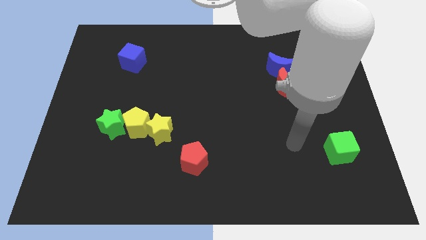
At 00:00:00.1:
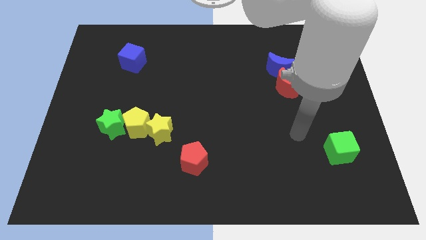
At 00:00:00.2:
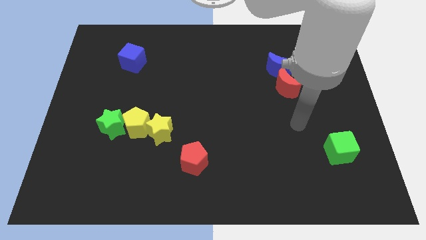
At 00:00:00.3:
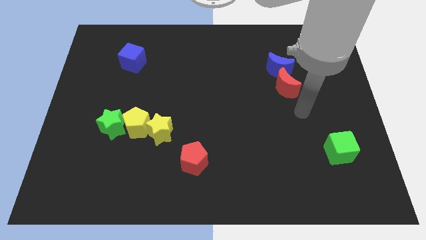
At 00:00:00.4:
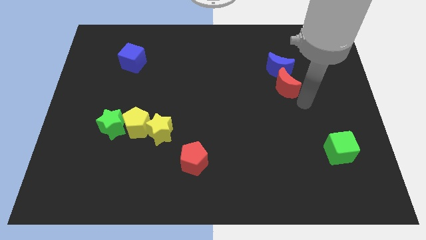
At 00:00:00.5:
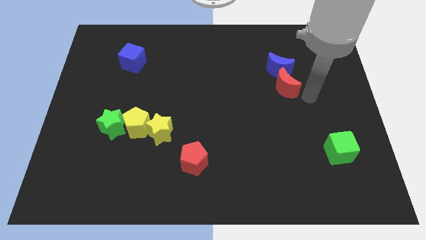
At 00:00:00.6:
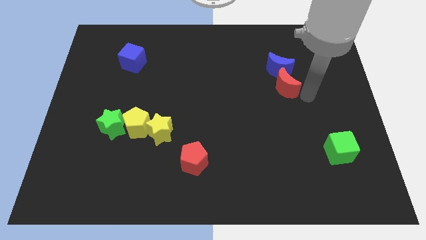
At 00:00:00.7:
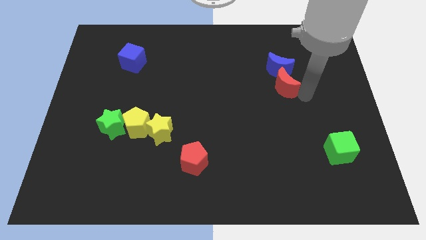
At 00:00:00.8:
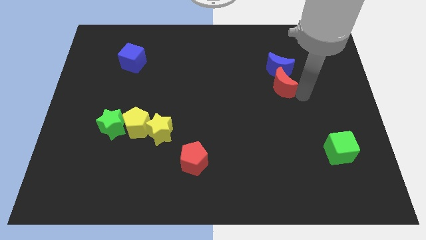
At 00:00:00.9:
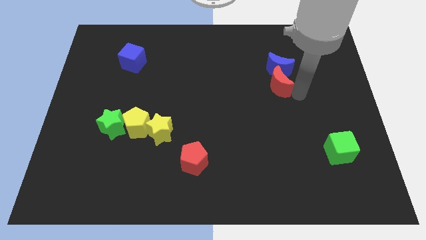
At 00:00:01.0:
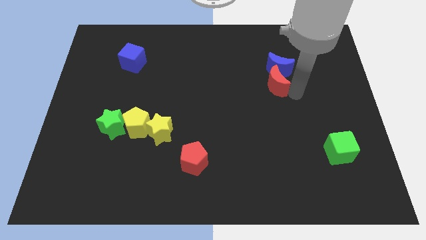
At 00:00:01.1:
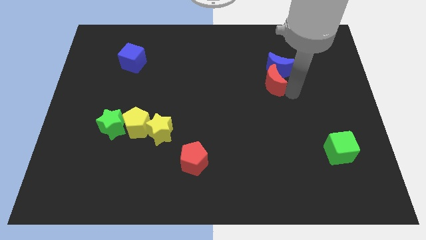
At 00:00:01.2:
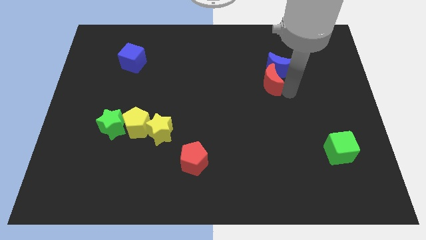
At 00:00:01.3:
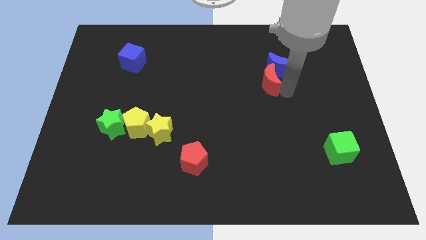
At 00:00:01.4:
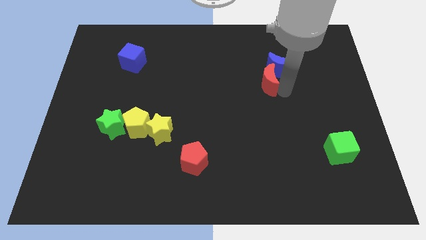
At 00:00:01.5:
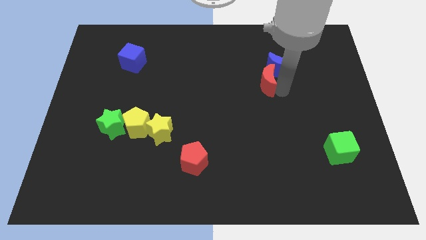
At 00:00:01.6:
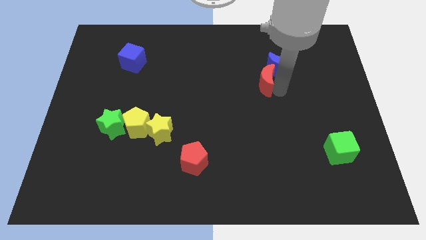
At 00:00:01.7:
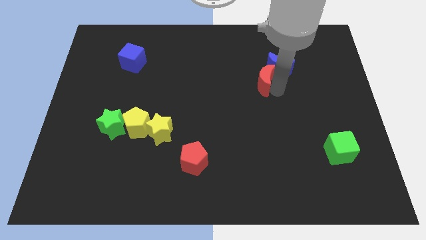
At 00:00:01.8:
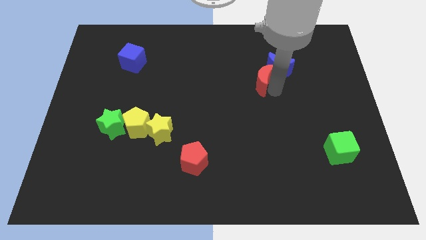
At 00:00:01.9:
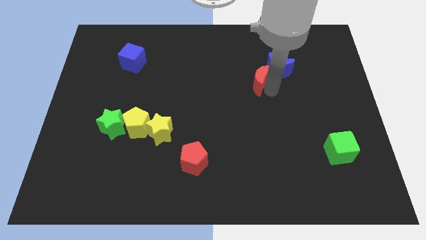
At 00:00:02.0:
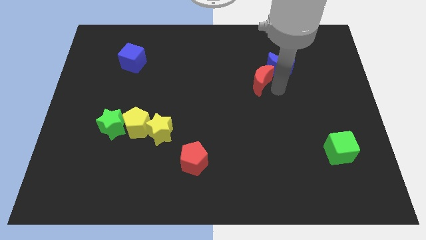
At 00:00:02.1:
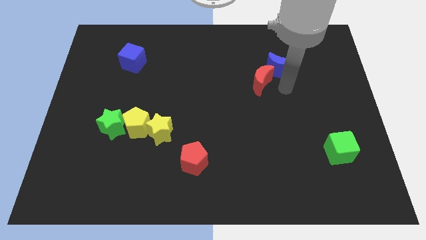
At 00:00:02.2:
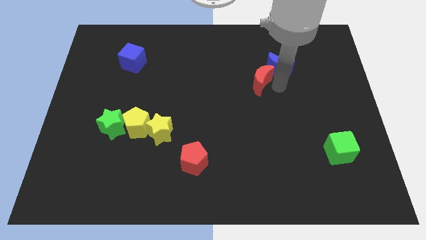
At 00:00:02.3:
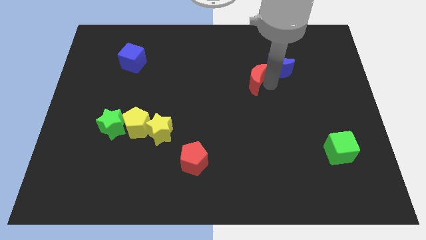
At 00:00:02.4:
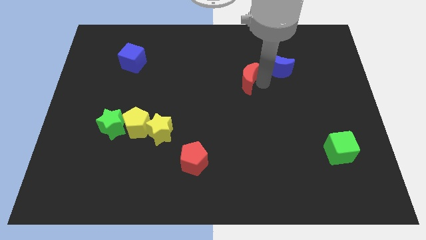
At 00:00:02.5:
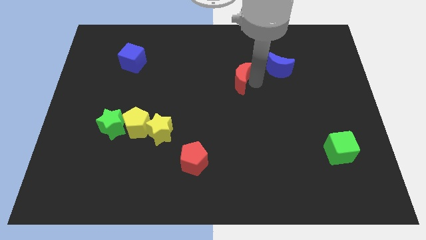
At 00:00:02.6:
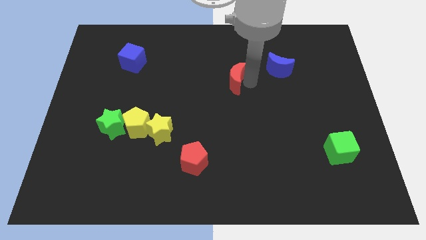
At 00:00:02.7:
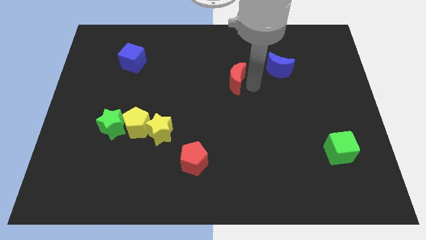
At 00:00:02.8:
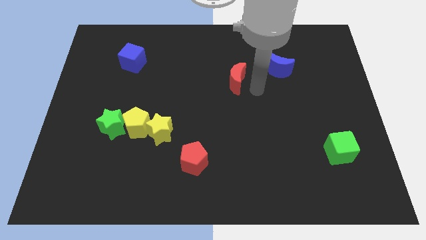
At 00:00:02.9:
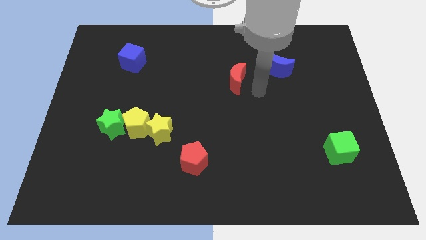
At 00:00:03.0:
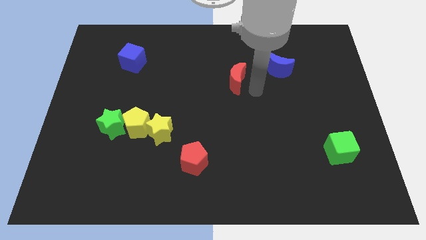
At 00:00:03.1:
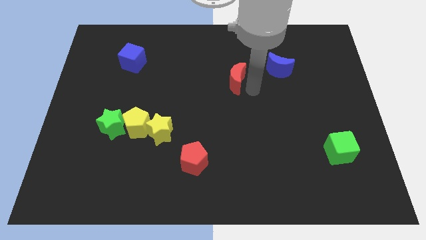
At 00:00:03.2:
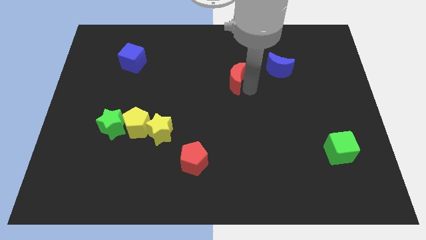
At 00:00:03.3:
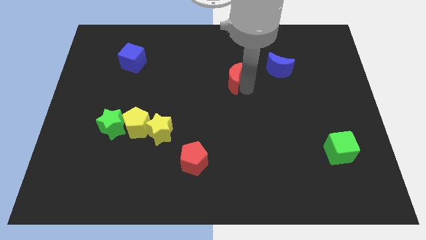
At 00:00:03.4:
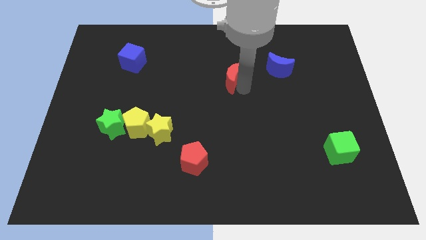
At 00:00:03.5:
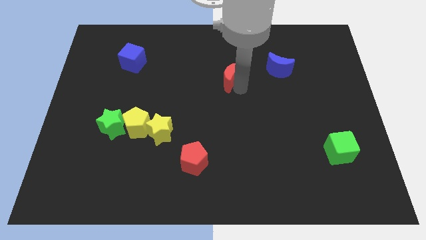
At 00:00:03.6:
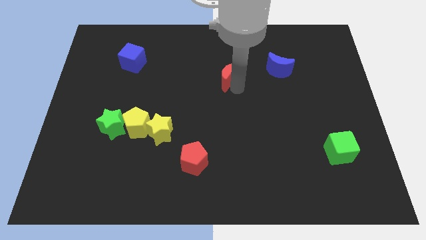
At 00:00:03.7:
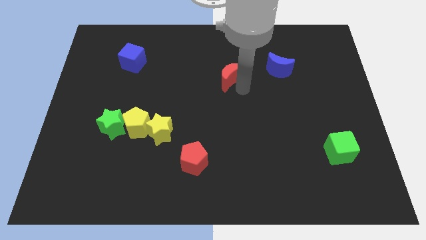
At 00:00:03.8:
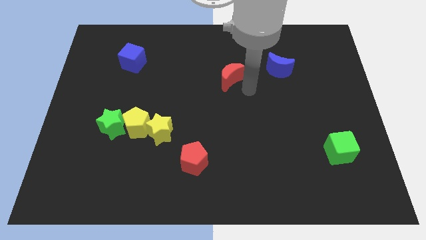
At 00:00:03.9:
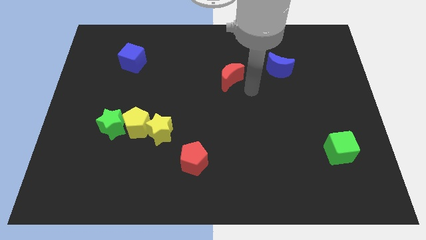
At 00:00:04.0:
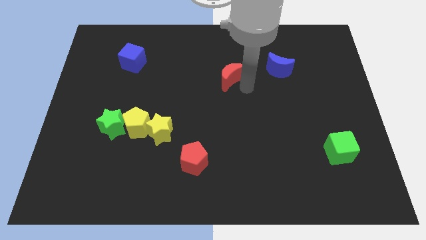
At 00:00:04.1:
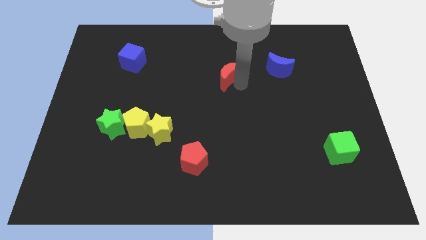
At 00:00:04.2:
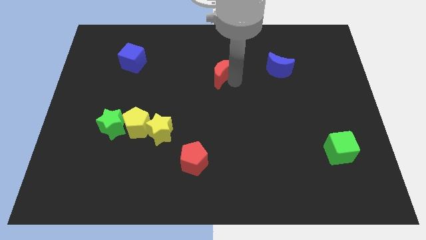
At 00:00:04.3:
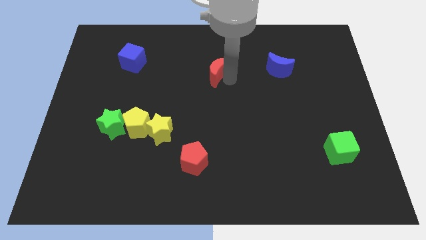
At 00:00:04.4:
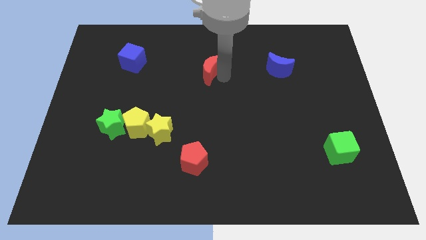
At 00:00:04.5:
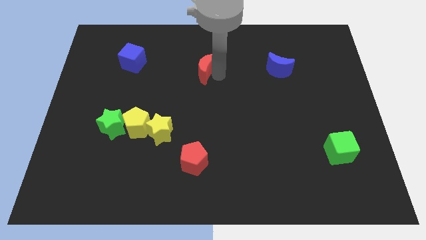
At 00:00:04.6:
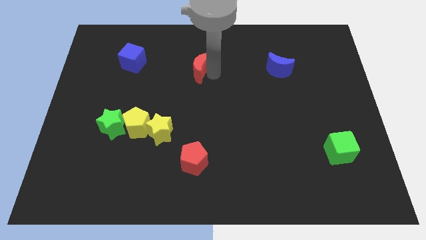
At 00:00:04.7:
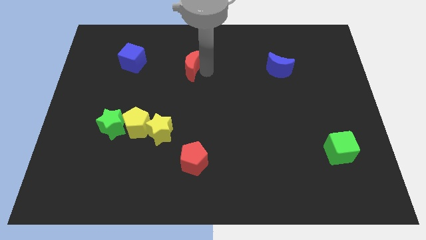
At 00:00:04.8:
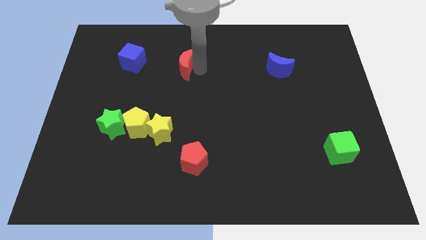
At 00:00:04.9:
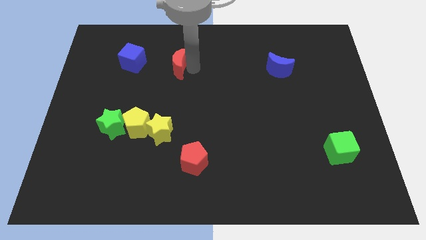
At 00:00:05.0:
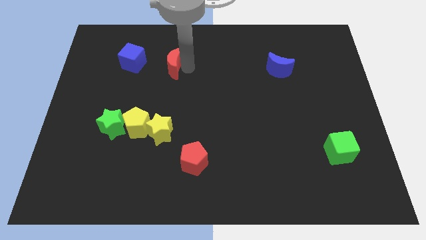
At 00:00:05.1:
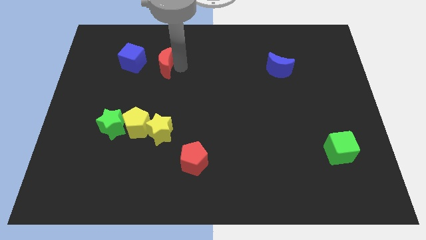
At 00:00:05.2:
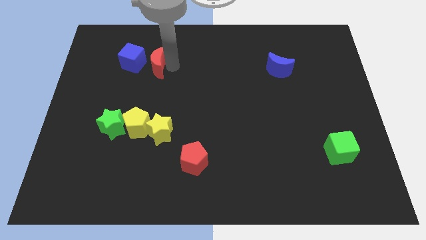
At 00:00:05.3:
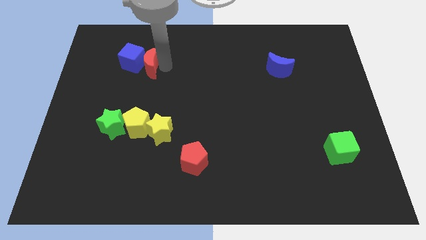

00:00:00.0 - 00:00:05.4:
push the red moon to the blue cube

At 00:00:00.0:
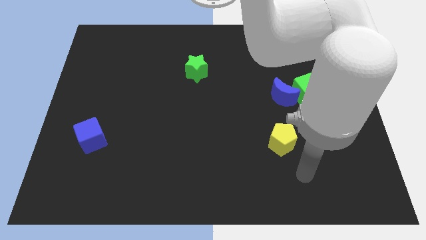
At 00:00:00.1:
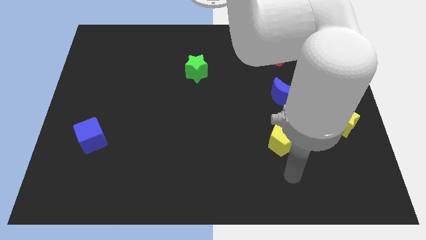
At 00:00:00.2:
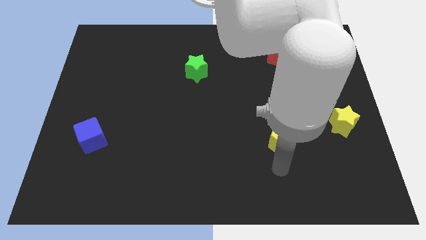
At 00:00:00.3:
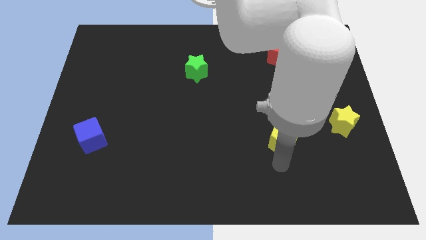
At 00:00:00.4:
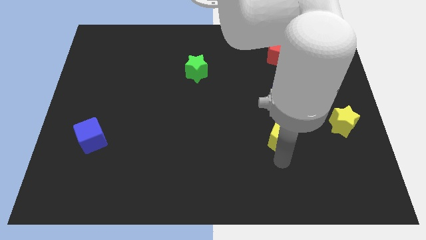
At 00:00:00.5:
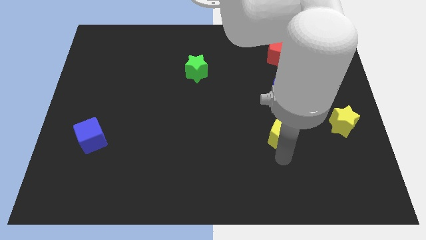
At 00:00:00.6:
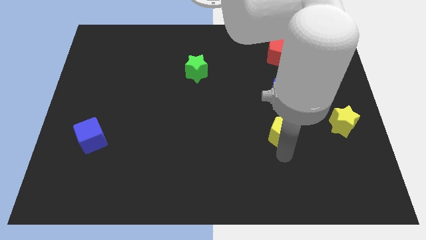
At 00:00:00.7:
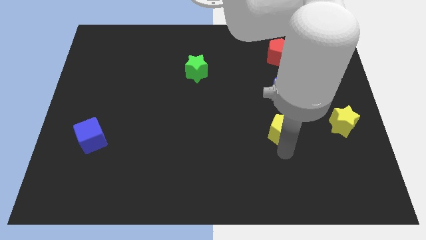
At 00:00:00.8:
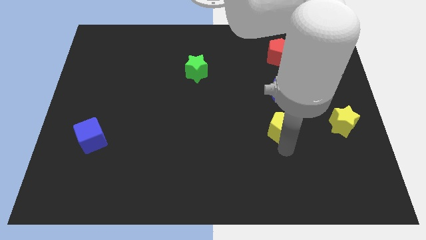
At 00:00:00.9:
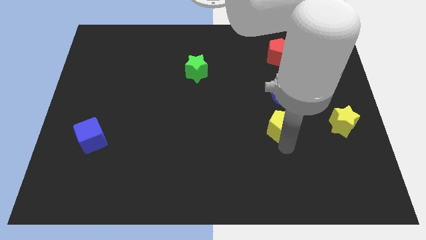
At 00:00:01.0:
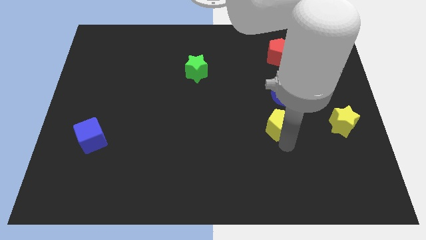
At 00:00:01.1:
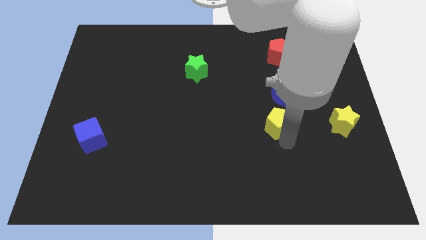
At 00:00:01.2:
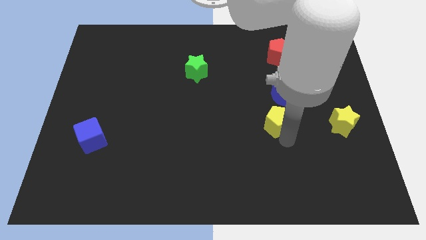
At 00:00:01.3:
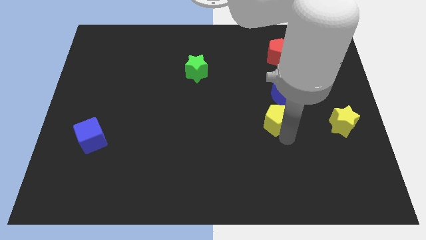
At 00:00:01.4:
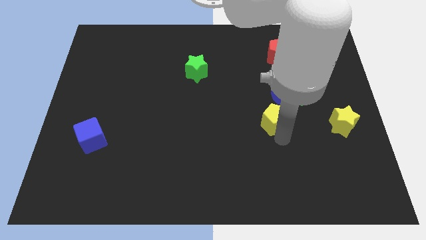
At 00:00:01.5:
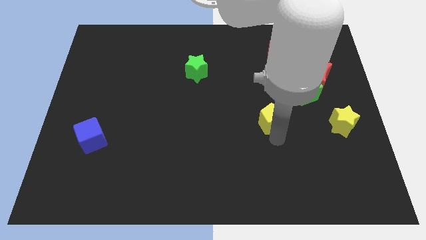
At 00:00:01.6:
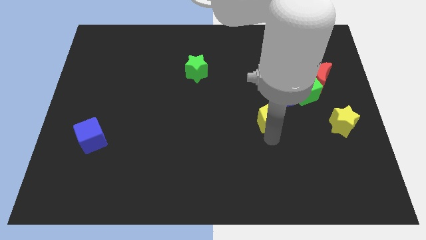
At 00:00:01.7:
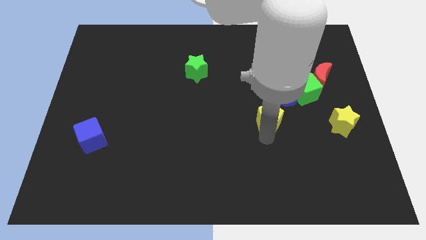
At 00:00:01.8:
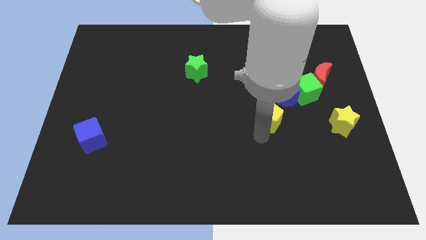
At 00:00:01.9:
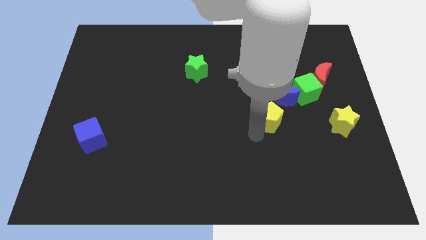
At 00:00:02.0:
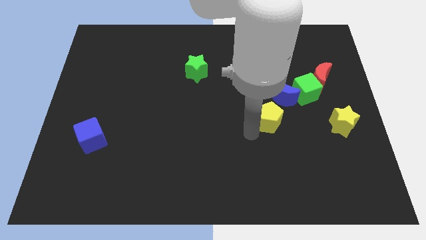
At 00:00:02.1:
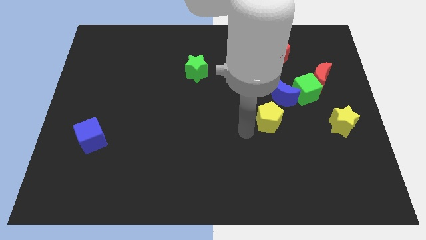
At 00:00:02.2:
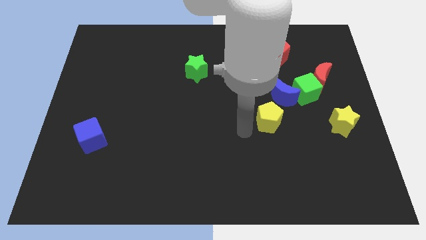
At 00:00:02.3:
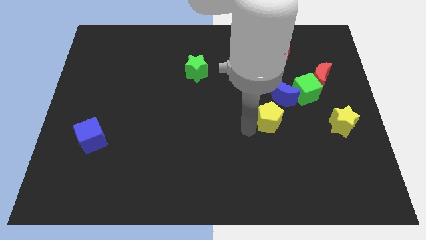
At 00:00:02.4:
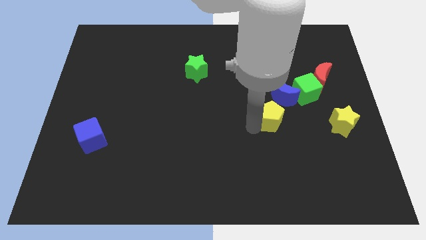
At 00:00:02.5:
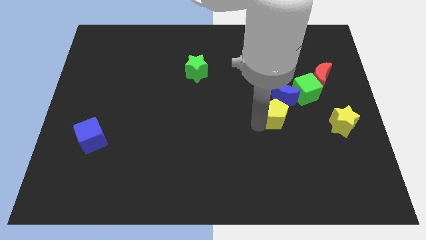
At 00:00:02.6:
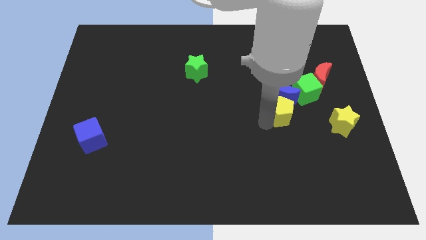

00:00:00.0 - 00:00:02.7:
move the yellow pentagon next to the blue moon
